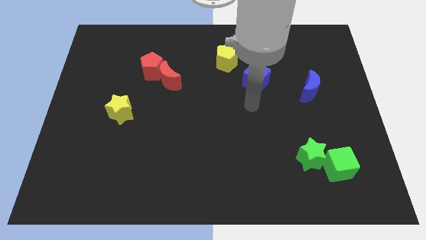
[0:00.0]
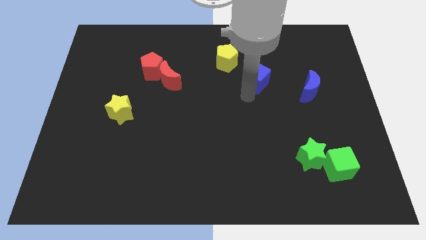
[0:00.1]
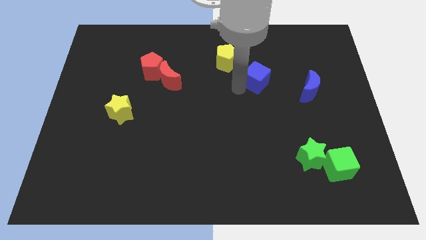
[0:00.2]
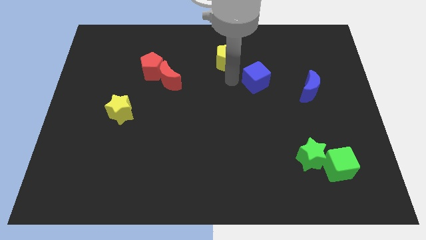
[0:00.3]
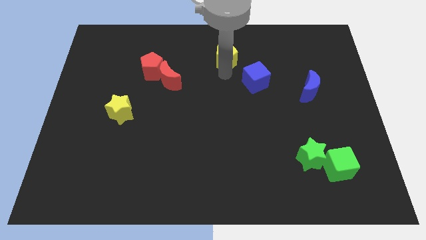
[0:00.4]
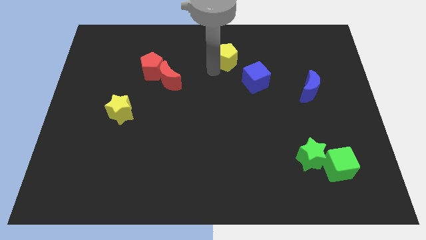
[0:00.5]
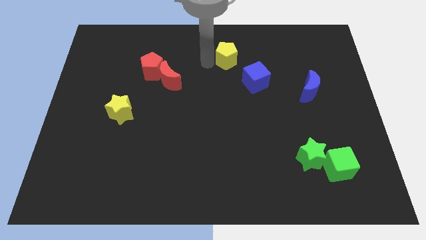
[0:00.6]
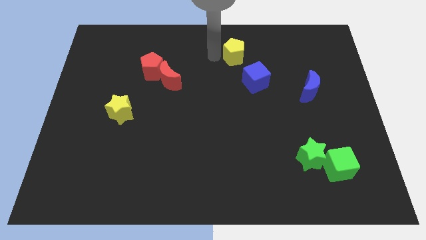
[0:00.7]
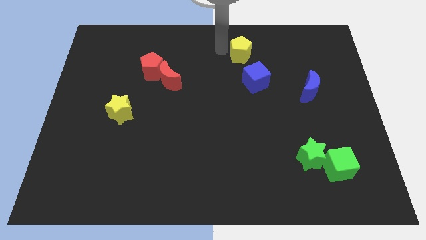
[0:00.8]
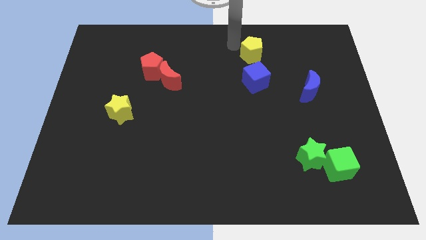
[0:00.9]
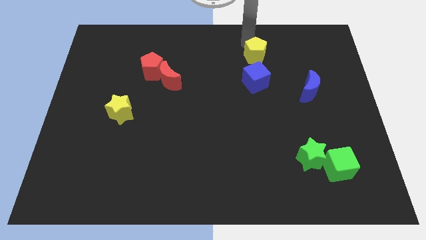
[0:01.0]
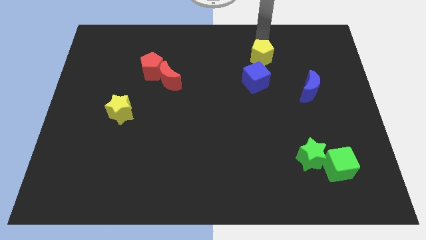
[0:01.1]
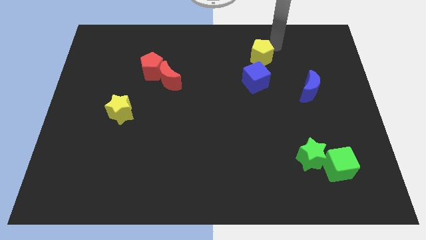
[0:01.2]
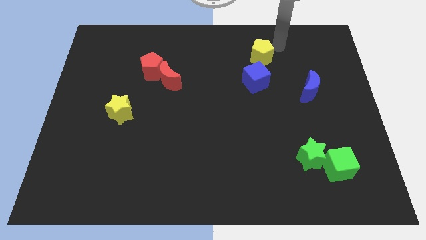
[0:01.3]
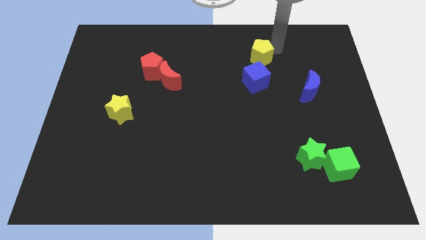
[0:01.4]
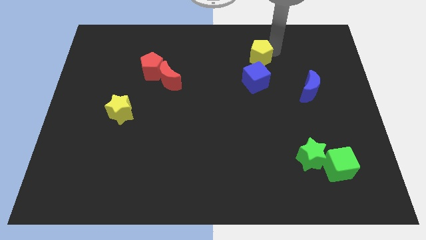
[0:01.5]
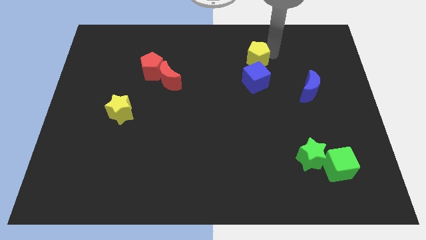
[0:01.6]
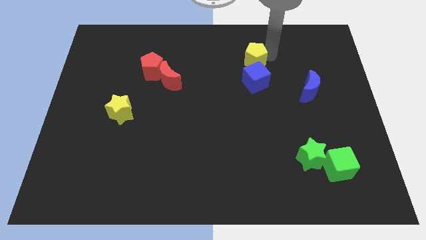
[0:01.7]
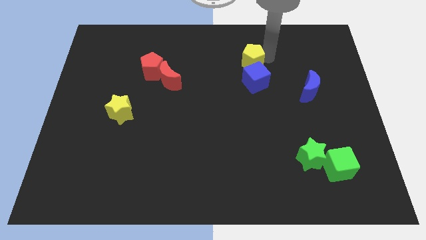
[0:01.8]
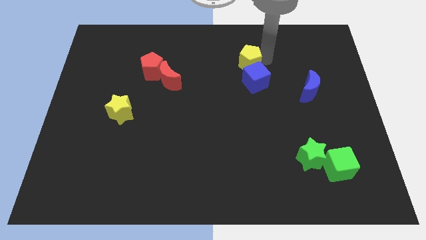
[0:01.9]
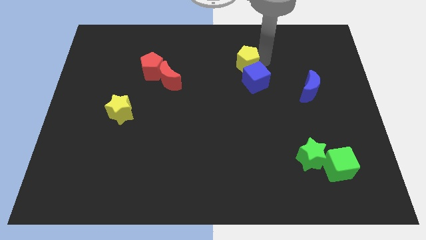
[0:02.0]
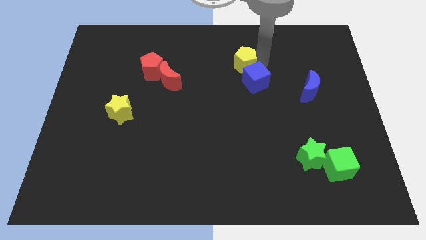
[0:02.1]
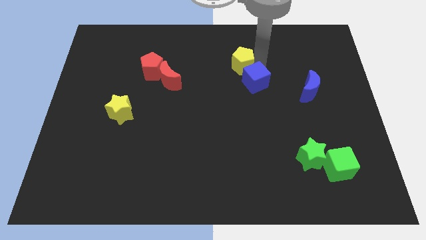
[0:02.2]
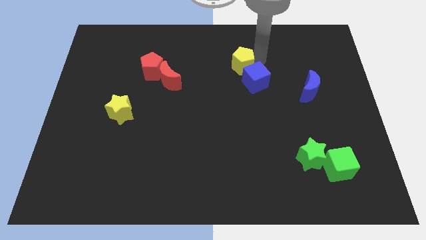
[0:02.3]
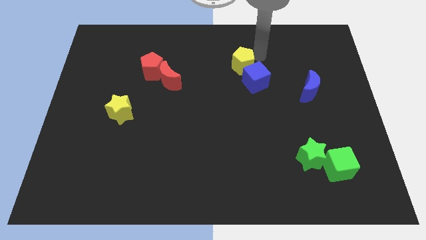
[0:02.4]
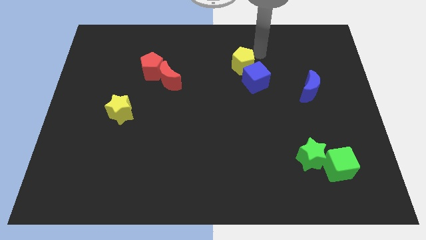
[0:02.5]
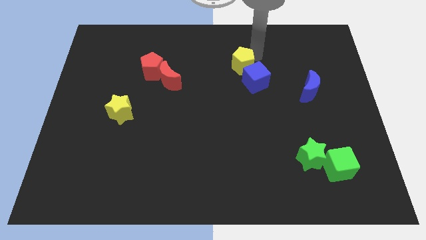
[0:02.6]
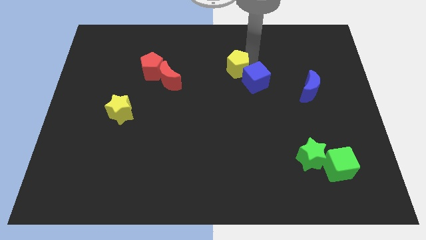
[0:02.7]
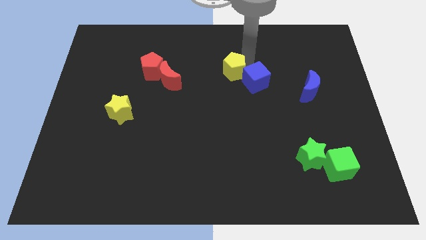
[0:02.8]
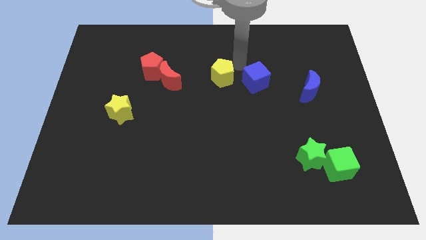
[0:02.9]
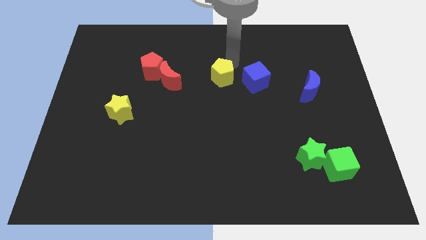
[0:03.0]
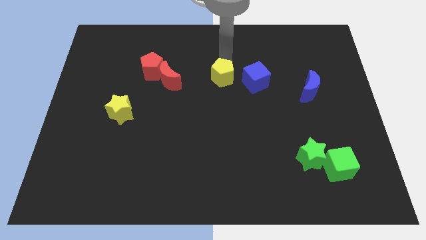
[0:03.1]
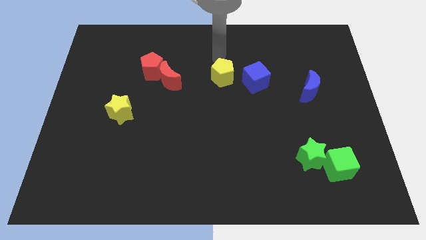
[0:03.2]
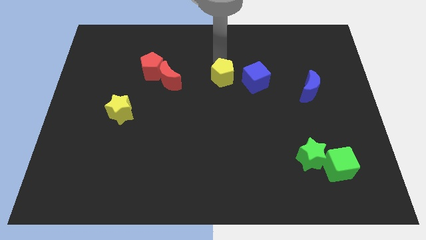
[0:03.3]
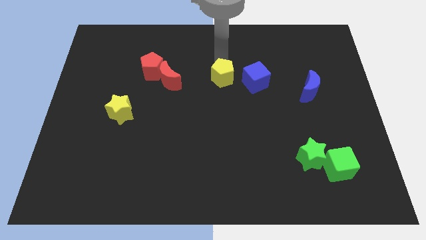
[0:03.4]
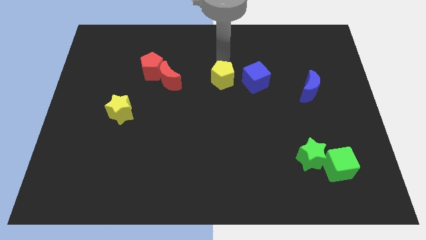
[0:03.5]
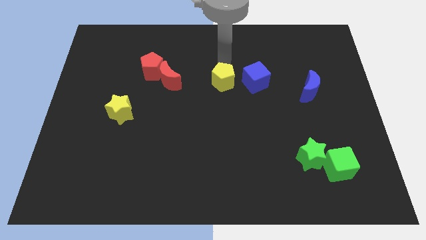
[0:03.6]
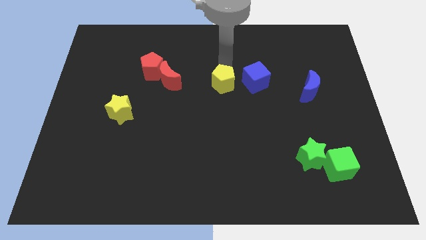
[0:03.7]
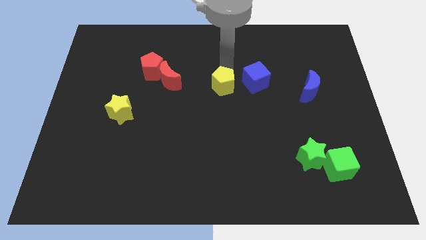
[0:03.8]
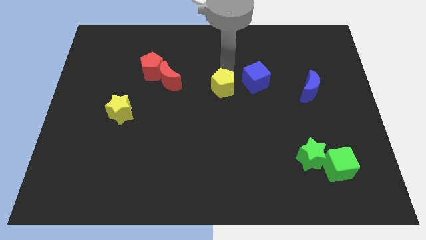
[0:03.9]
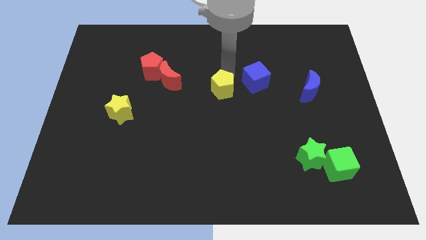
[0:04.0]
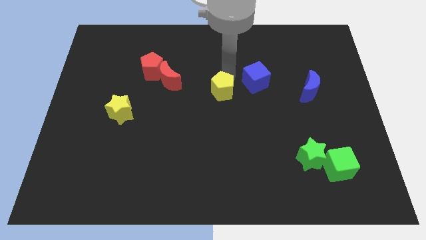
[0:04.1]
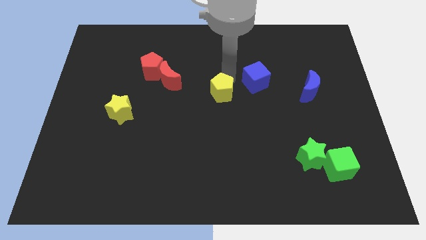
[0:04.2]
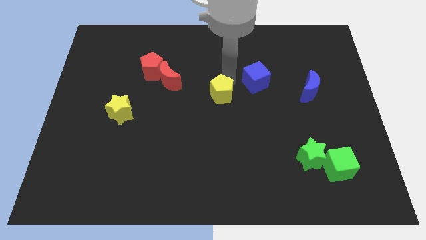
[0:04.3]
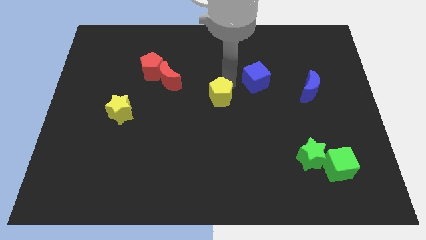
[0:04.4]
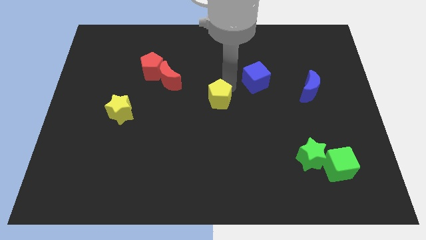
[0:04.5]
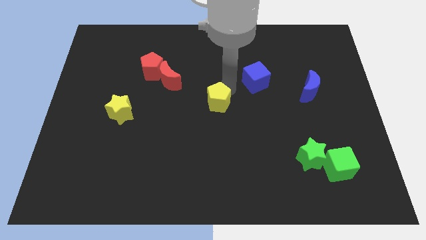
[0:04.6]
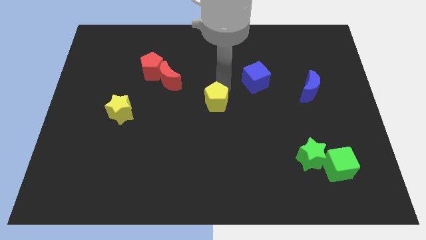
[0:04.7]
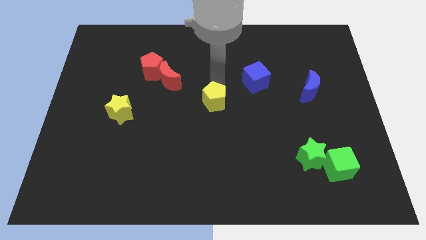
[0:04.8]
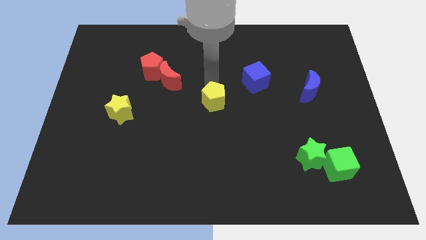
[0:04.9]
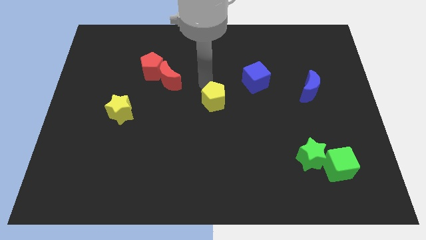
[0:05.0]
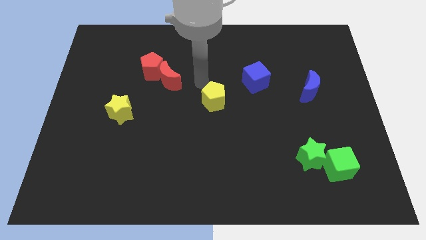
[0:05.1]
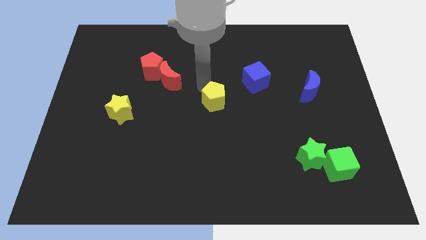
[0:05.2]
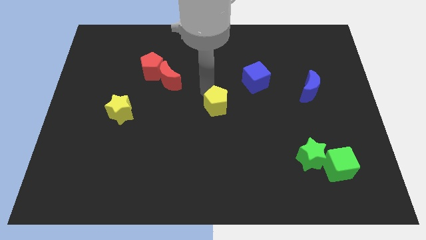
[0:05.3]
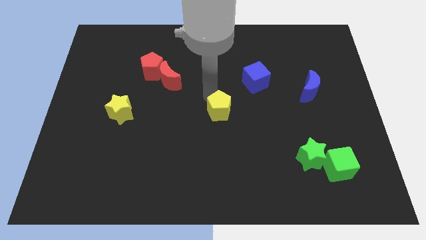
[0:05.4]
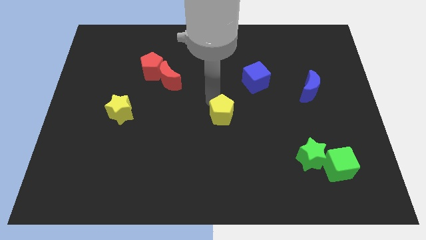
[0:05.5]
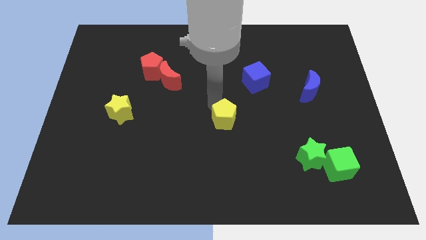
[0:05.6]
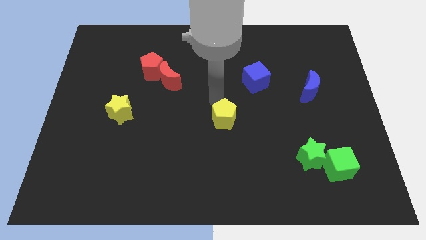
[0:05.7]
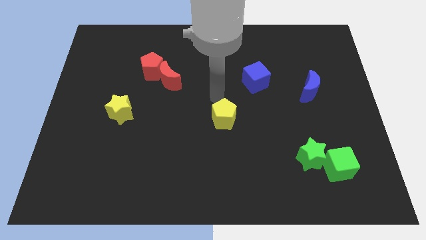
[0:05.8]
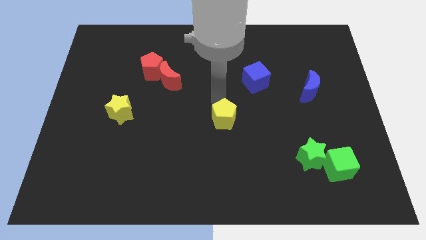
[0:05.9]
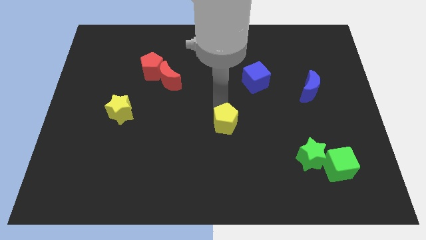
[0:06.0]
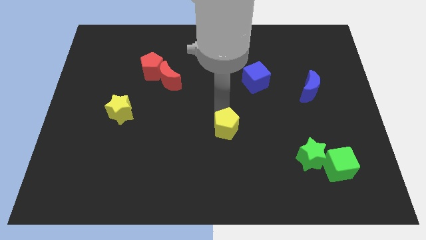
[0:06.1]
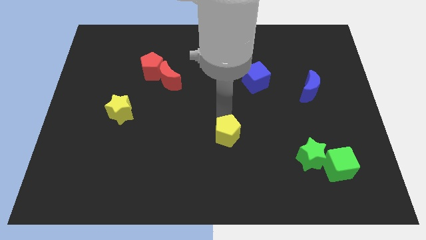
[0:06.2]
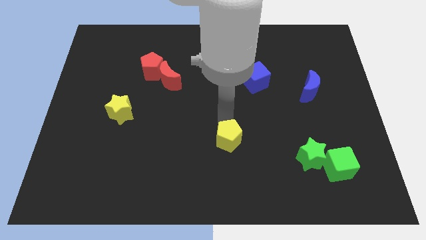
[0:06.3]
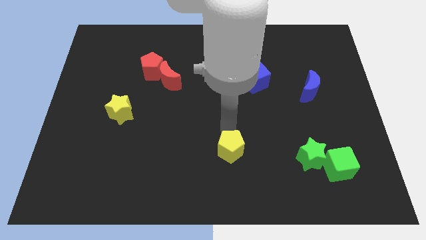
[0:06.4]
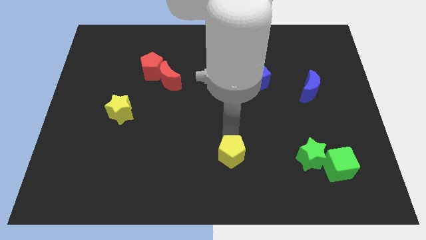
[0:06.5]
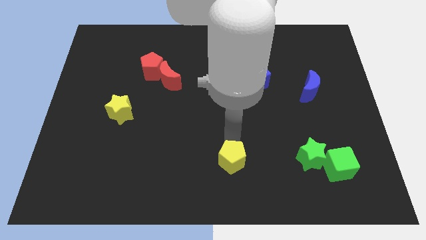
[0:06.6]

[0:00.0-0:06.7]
move the yellow pentagon to the bottom side
